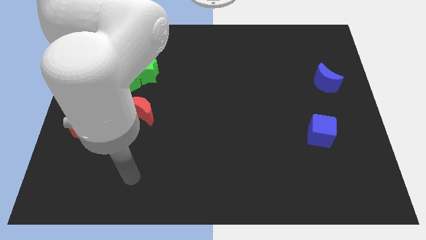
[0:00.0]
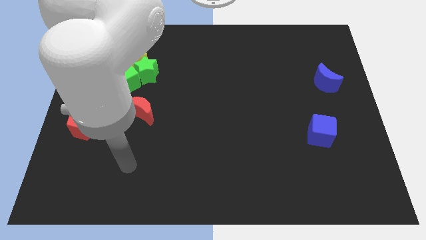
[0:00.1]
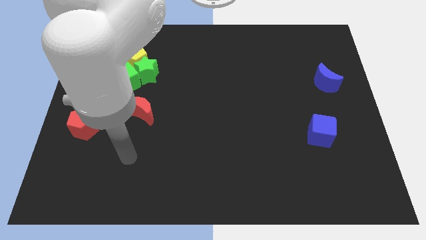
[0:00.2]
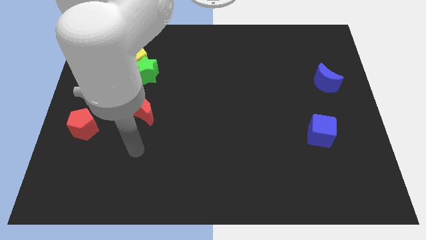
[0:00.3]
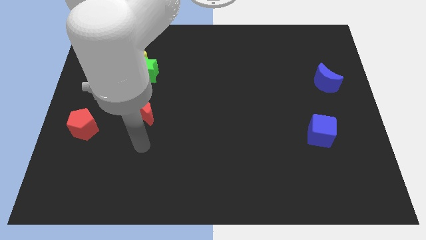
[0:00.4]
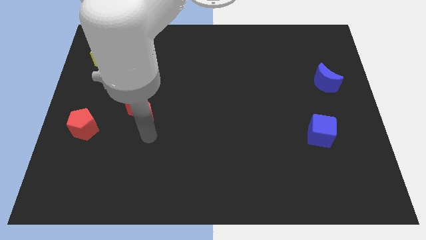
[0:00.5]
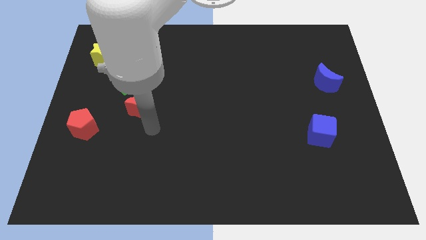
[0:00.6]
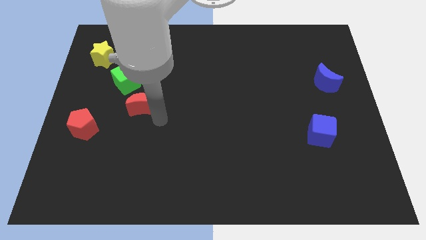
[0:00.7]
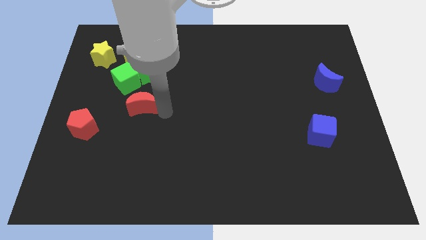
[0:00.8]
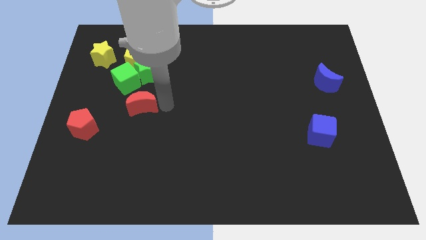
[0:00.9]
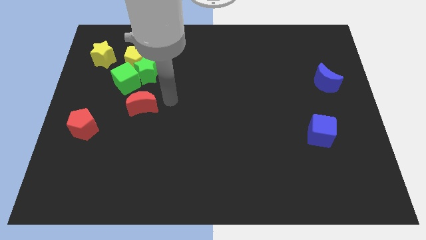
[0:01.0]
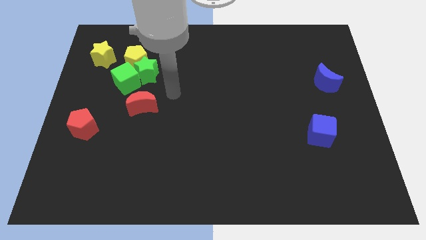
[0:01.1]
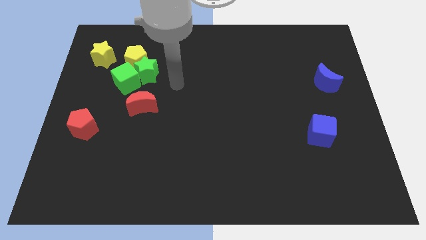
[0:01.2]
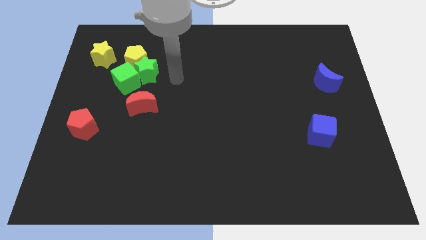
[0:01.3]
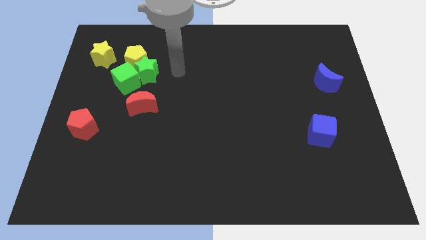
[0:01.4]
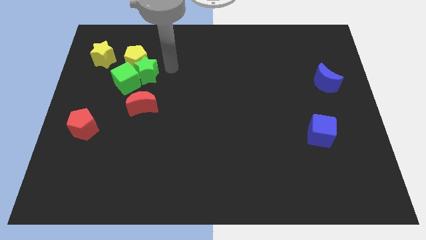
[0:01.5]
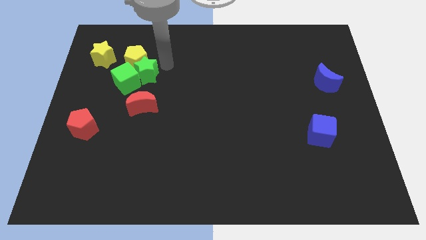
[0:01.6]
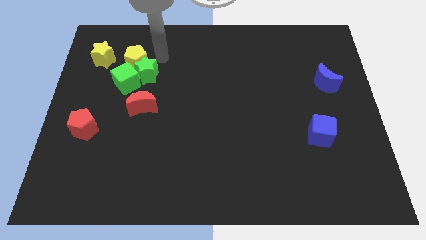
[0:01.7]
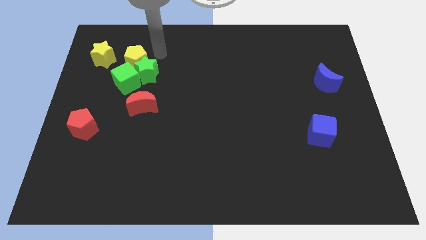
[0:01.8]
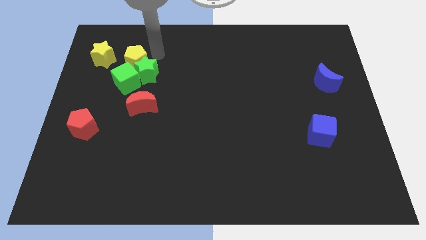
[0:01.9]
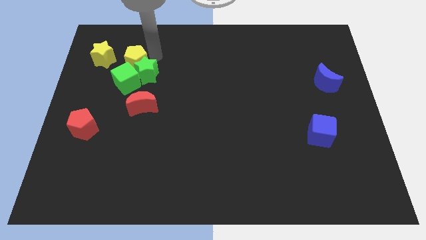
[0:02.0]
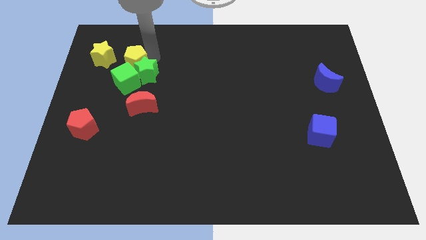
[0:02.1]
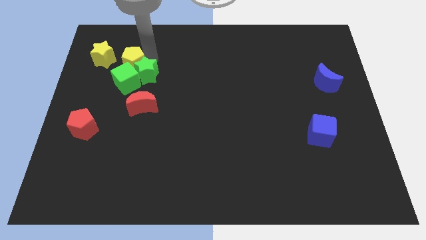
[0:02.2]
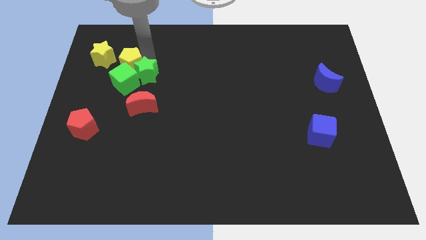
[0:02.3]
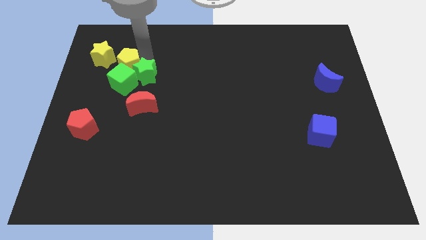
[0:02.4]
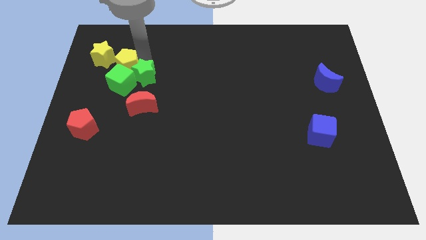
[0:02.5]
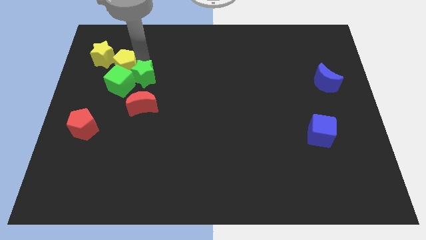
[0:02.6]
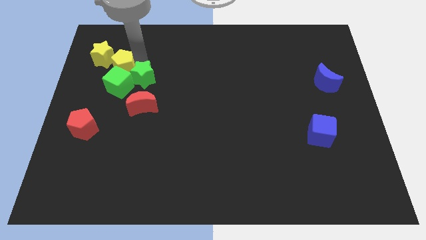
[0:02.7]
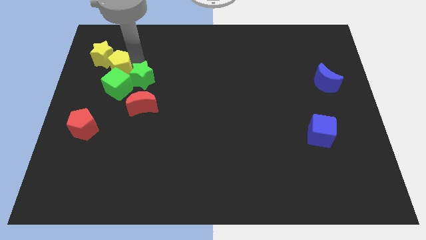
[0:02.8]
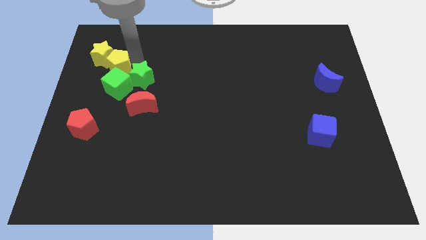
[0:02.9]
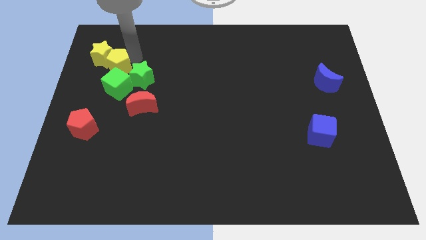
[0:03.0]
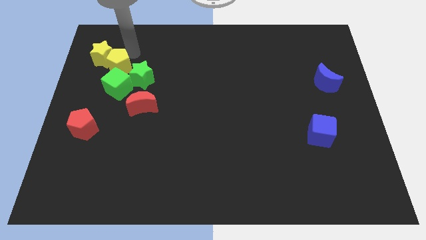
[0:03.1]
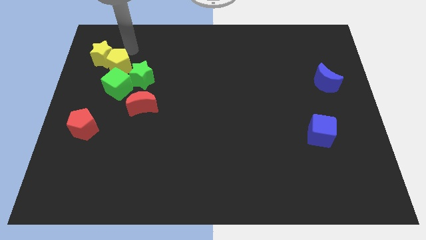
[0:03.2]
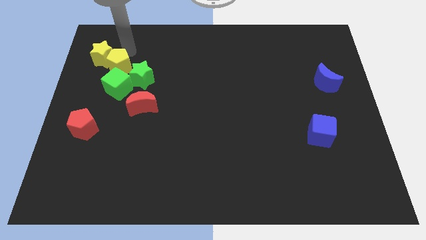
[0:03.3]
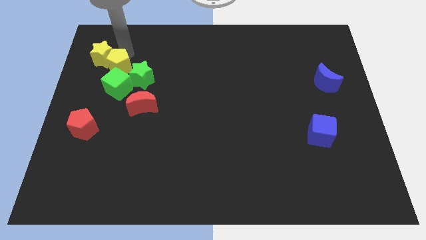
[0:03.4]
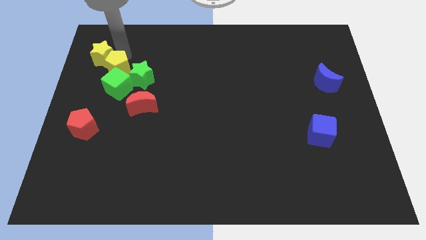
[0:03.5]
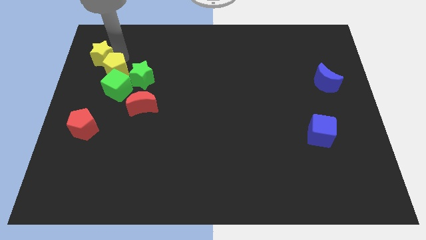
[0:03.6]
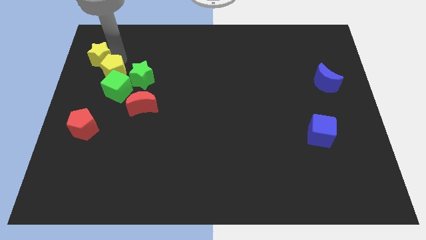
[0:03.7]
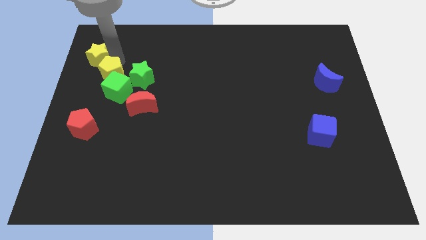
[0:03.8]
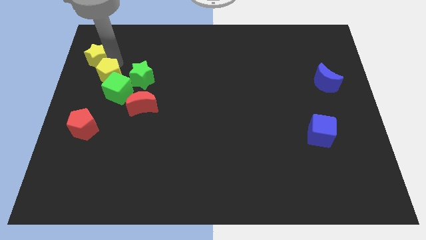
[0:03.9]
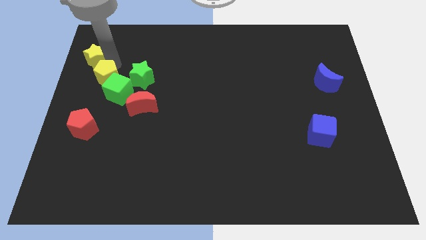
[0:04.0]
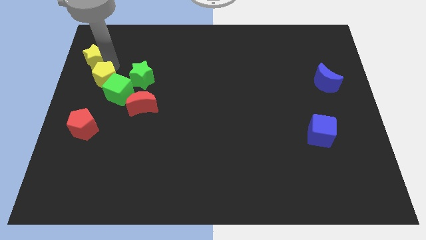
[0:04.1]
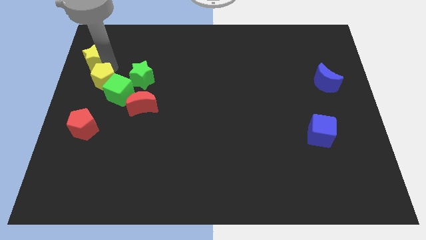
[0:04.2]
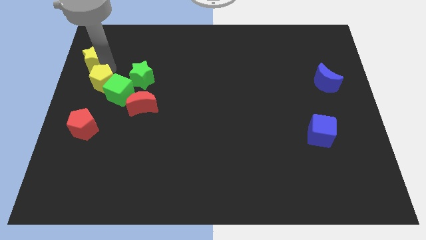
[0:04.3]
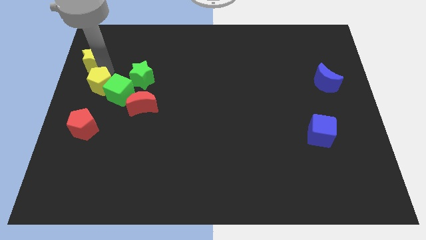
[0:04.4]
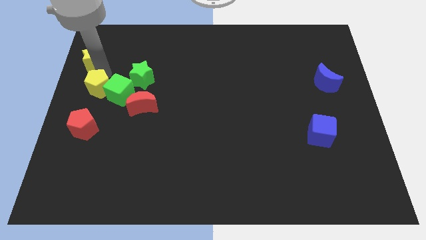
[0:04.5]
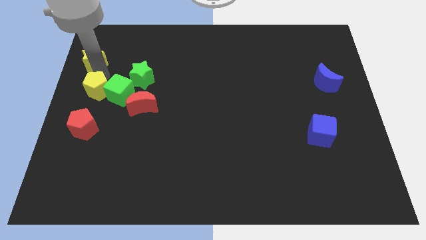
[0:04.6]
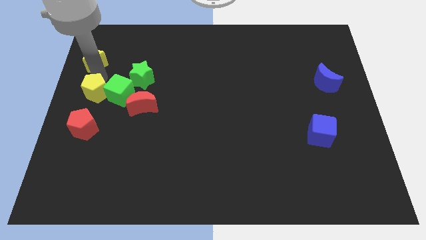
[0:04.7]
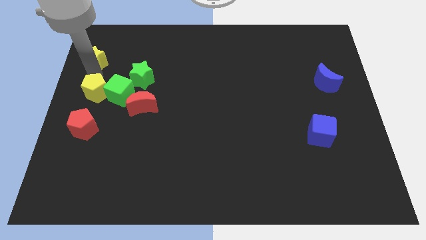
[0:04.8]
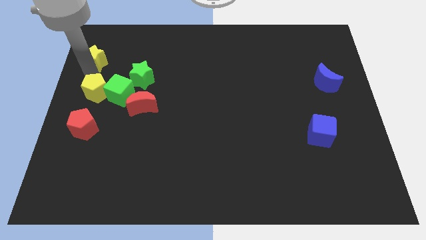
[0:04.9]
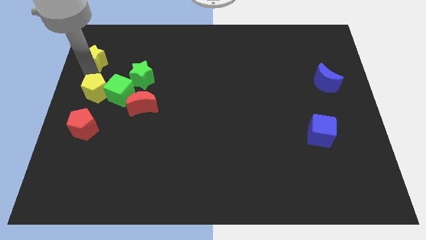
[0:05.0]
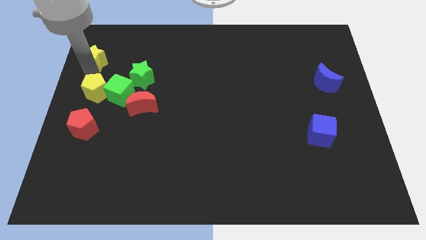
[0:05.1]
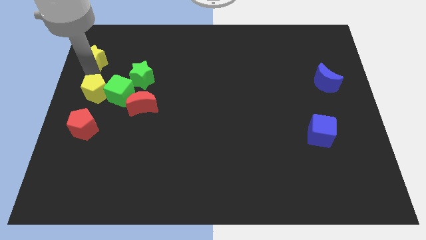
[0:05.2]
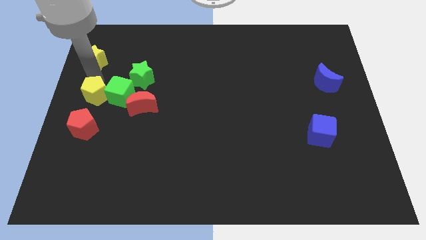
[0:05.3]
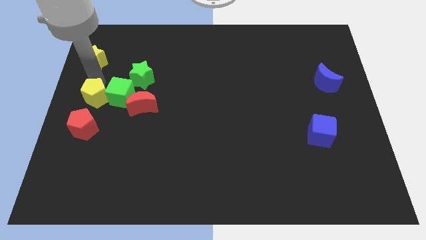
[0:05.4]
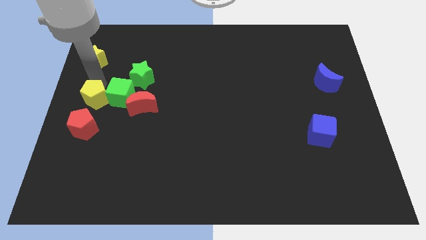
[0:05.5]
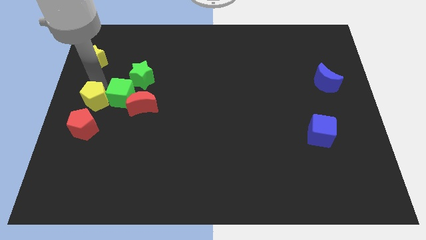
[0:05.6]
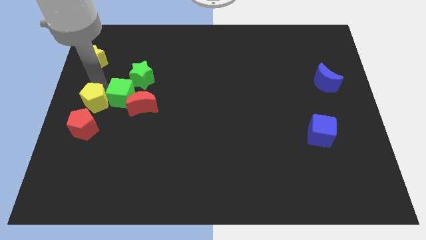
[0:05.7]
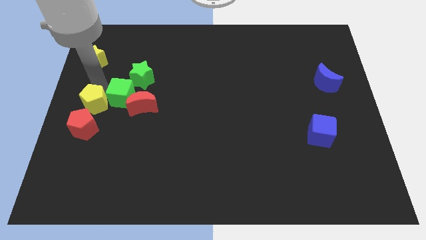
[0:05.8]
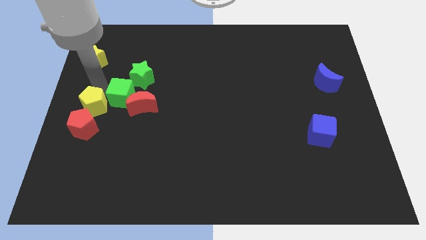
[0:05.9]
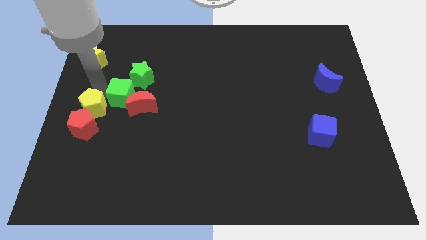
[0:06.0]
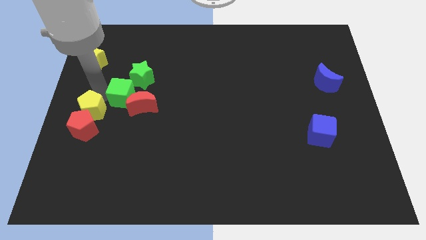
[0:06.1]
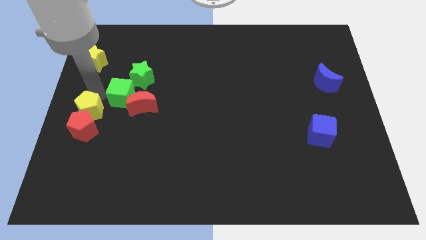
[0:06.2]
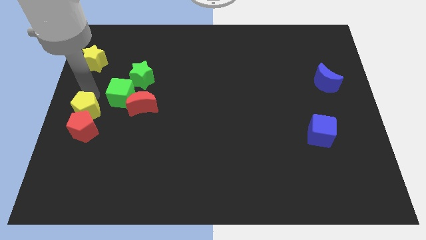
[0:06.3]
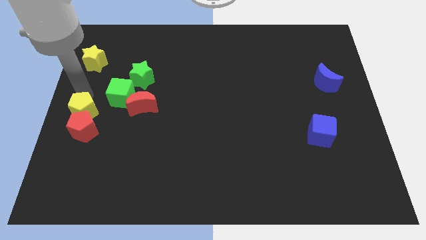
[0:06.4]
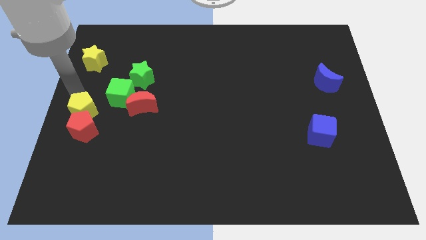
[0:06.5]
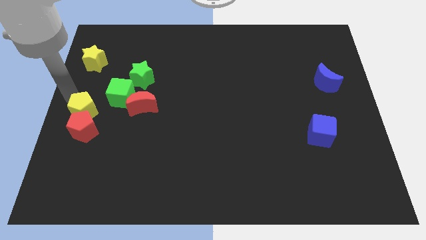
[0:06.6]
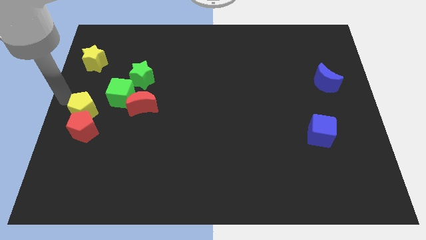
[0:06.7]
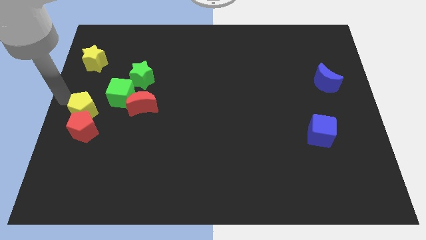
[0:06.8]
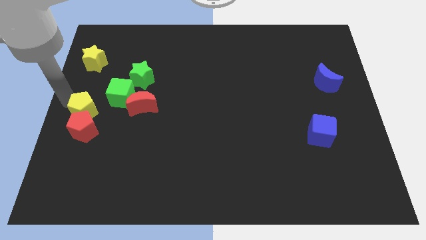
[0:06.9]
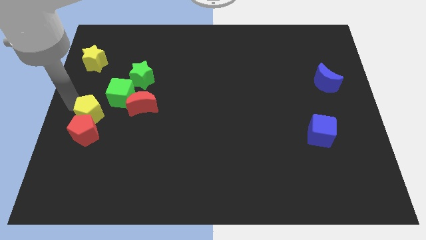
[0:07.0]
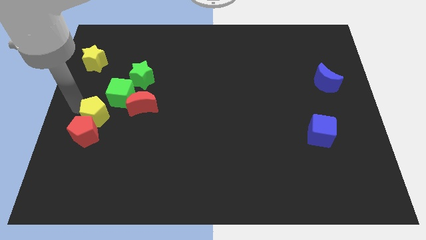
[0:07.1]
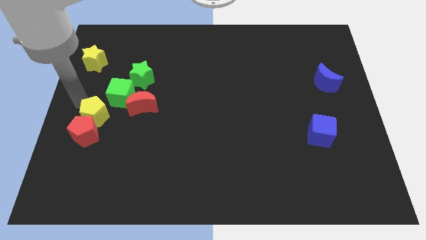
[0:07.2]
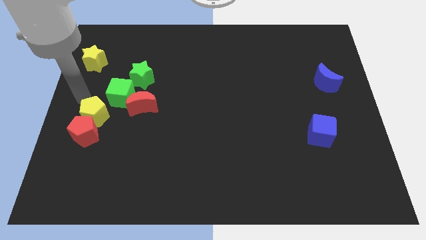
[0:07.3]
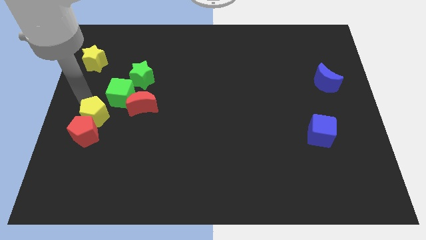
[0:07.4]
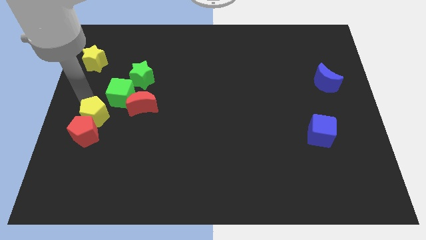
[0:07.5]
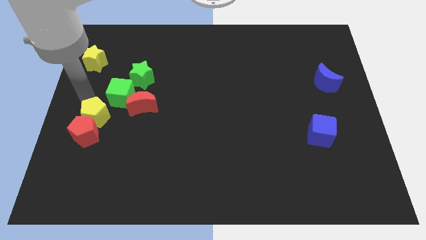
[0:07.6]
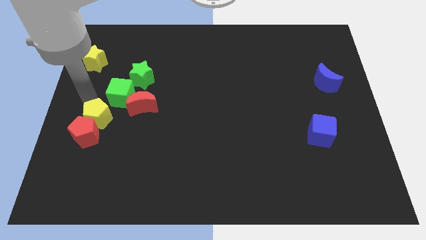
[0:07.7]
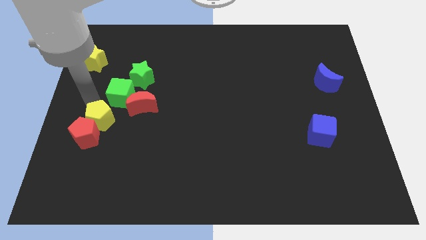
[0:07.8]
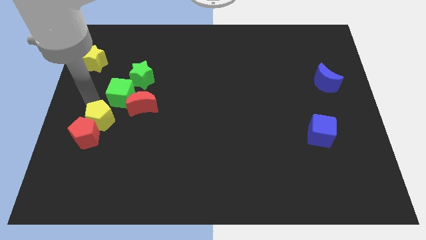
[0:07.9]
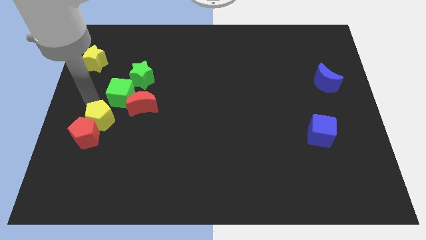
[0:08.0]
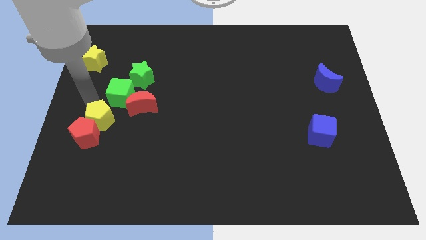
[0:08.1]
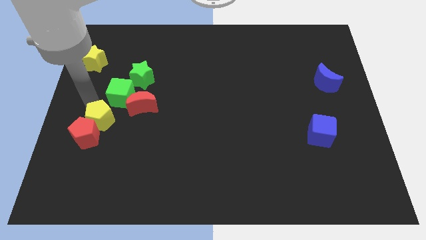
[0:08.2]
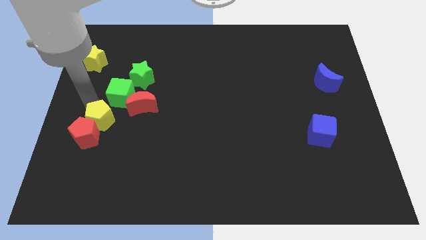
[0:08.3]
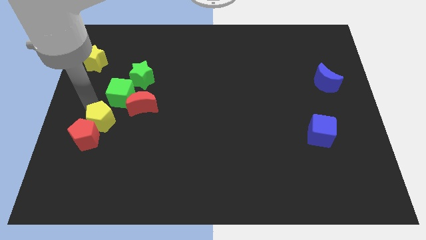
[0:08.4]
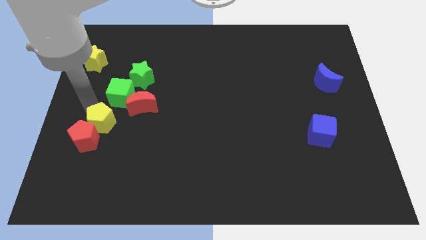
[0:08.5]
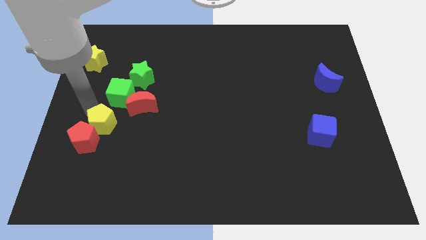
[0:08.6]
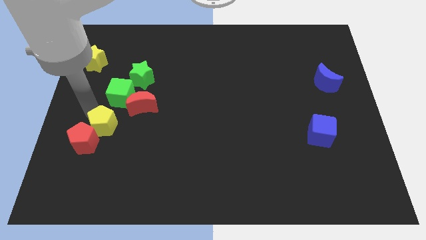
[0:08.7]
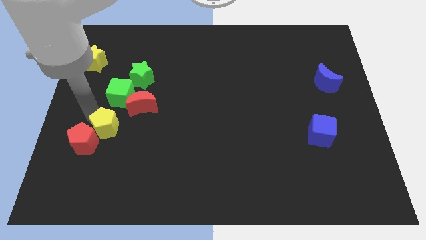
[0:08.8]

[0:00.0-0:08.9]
slide the yellow pentagon downwards
